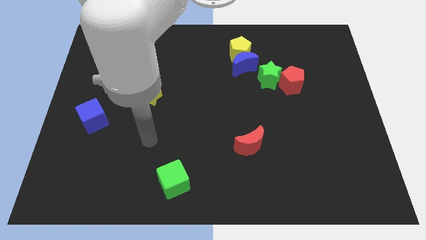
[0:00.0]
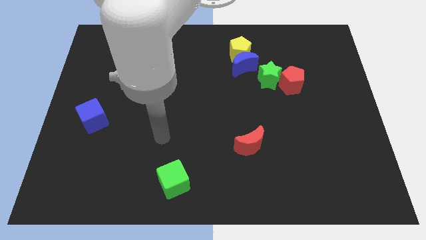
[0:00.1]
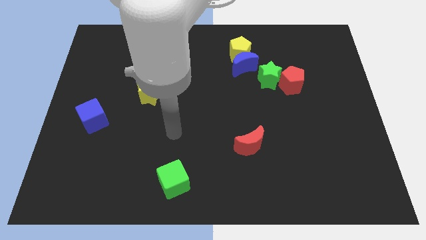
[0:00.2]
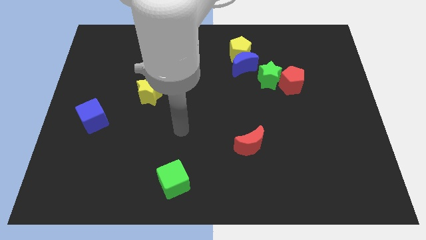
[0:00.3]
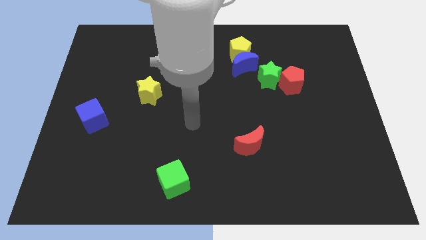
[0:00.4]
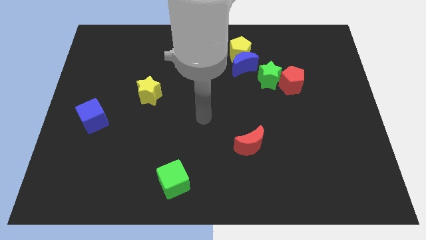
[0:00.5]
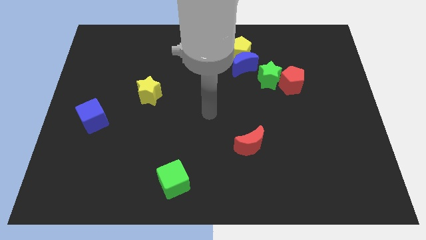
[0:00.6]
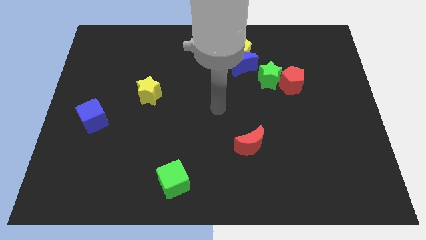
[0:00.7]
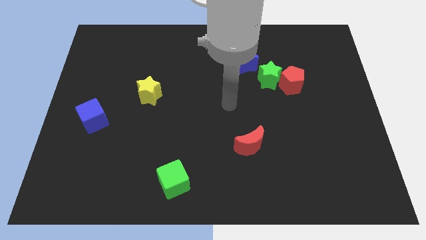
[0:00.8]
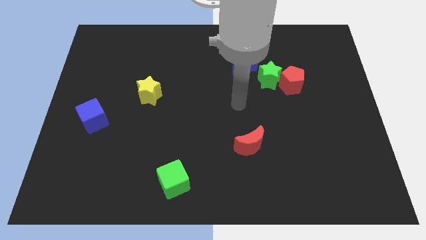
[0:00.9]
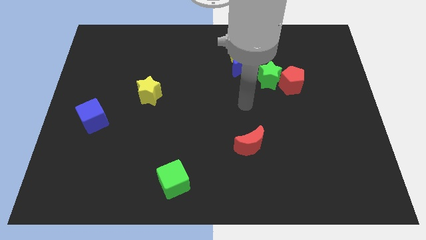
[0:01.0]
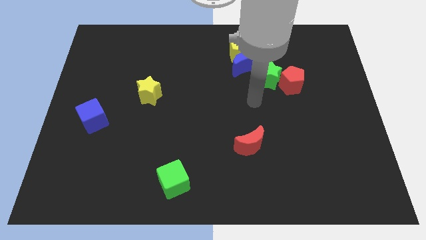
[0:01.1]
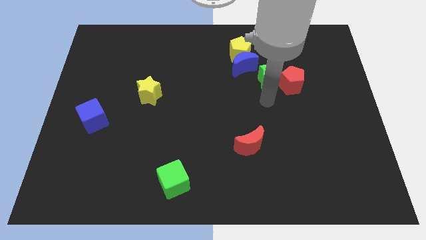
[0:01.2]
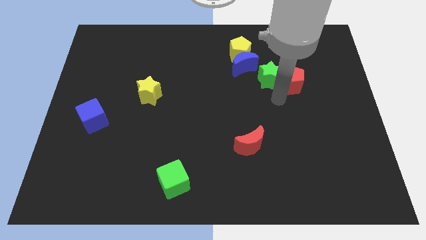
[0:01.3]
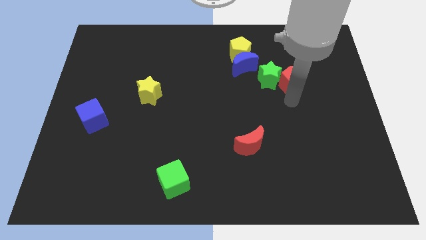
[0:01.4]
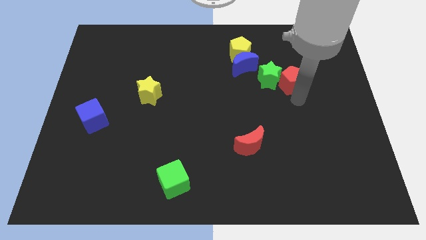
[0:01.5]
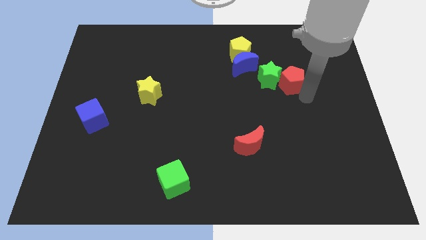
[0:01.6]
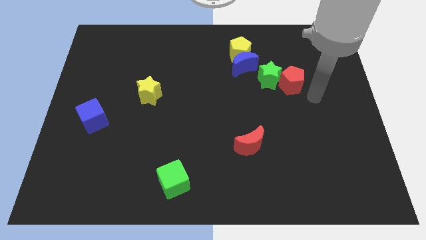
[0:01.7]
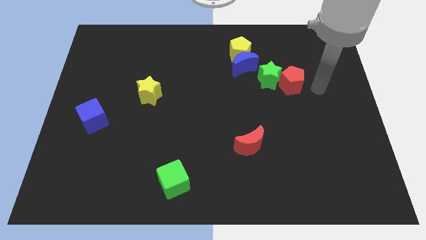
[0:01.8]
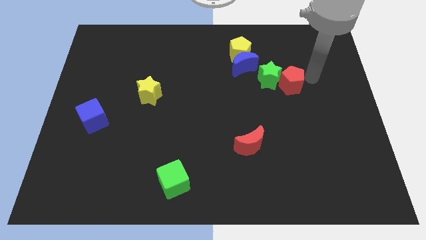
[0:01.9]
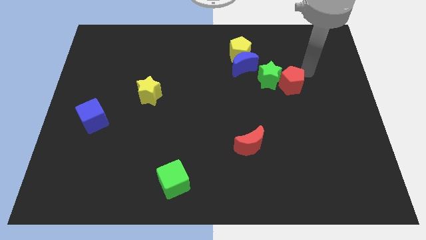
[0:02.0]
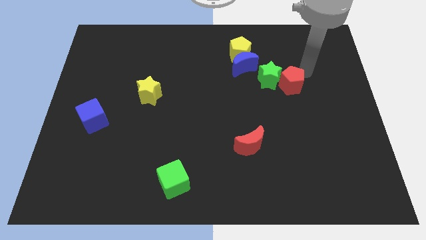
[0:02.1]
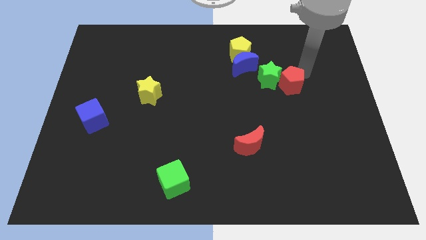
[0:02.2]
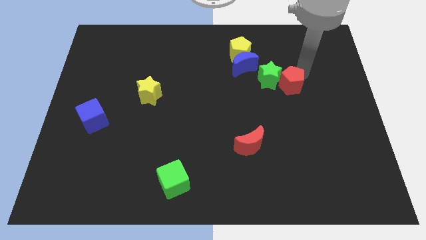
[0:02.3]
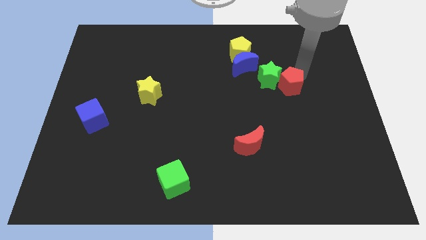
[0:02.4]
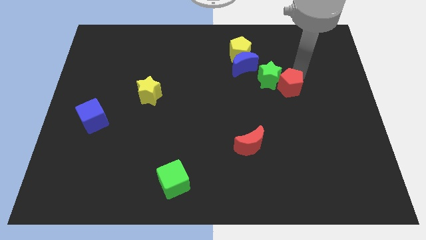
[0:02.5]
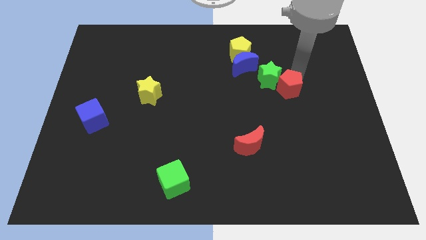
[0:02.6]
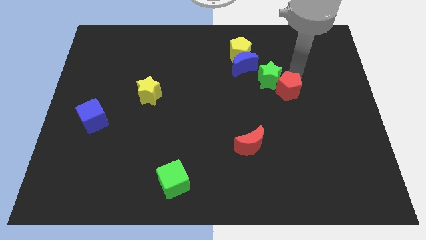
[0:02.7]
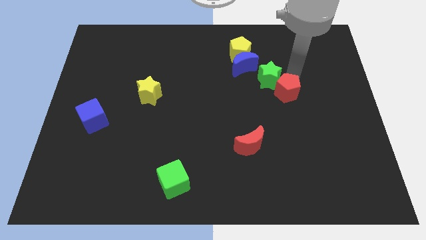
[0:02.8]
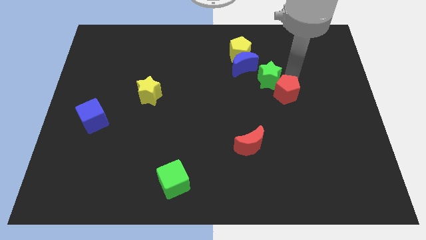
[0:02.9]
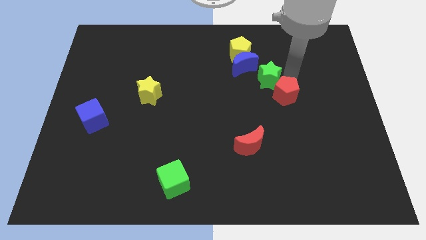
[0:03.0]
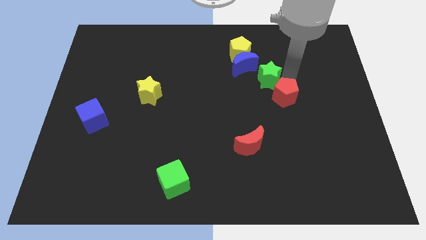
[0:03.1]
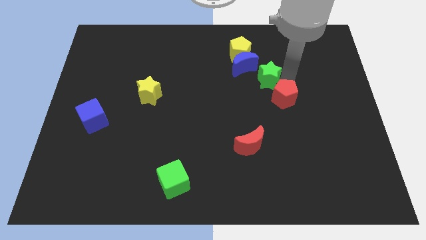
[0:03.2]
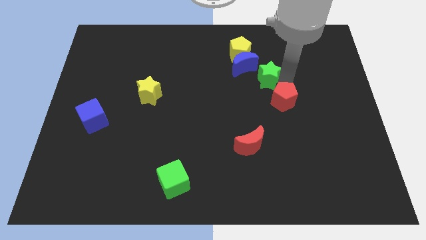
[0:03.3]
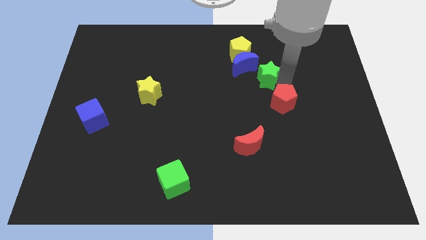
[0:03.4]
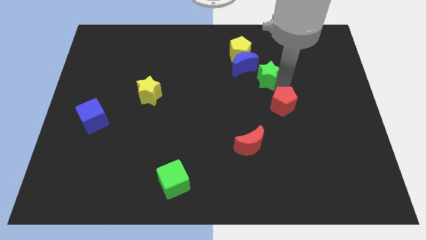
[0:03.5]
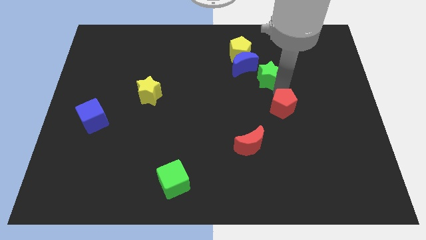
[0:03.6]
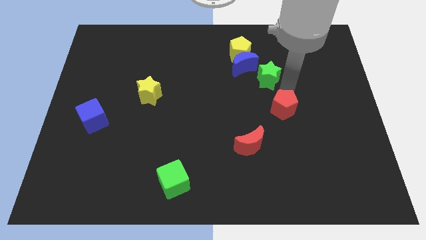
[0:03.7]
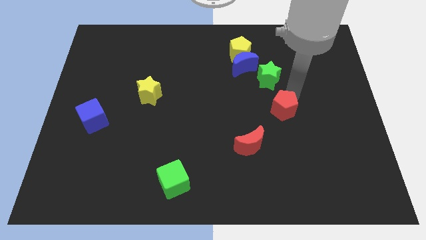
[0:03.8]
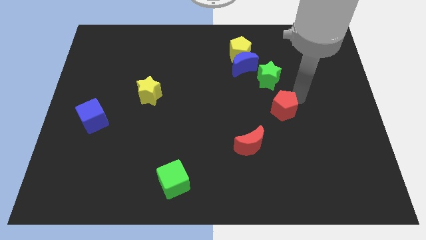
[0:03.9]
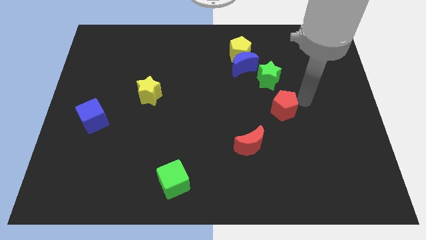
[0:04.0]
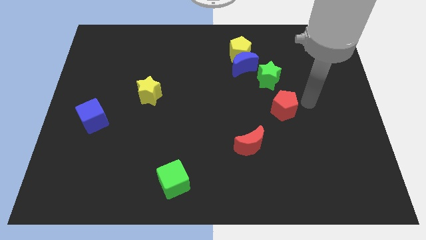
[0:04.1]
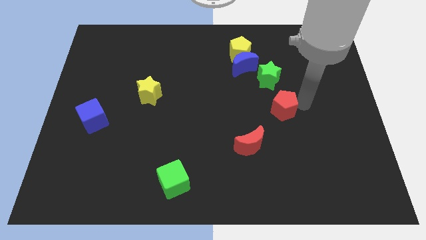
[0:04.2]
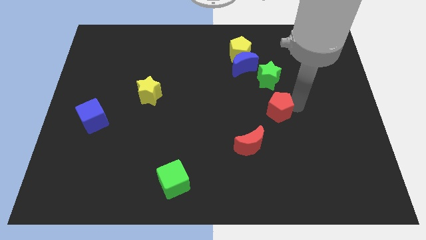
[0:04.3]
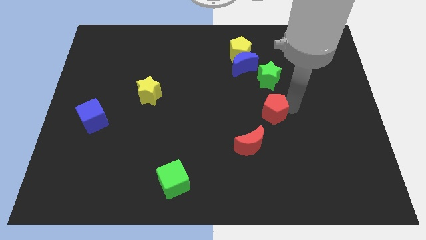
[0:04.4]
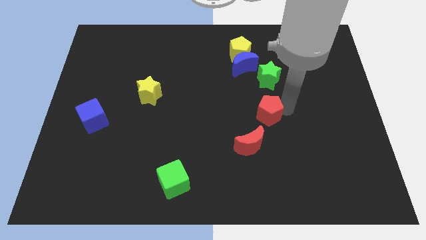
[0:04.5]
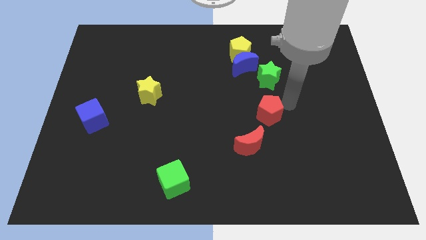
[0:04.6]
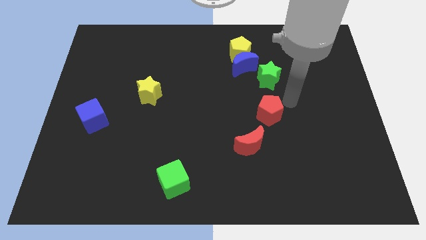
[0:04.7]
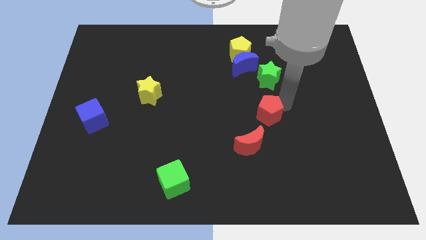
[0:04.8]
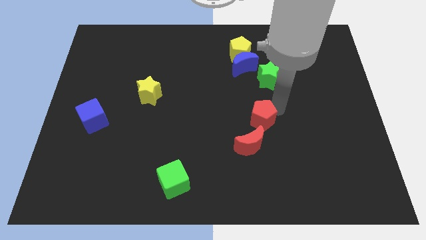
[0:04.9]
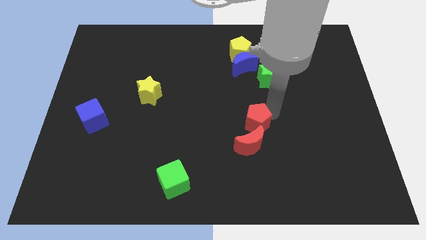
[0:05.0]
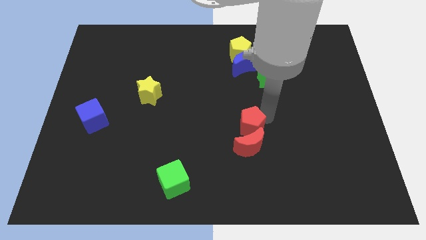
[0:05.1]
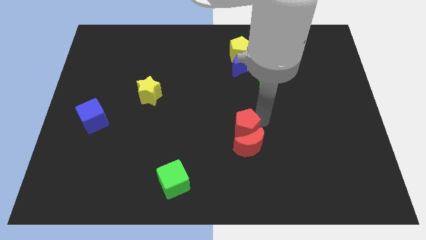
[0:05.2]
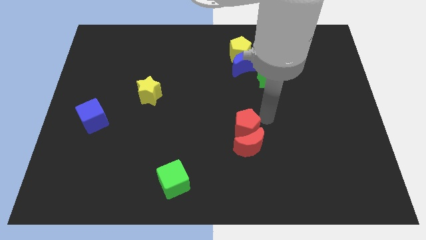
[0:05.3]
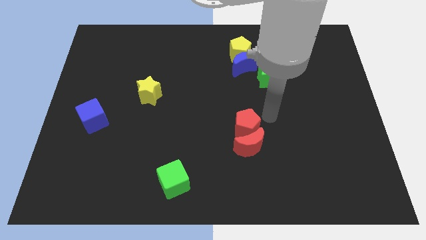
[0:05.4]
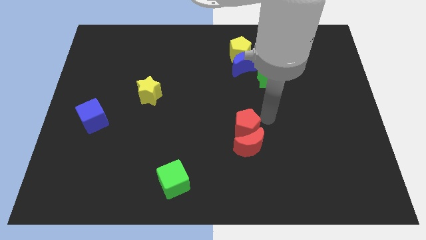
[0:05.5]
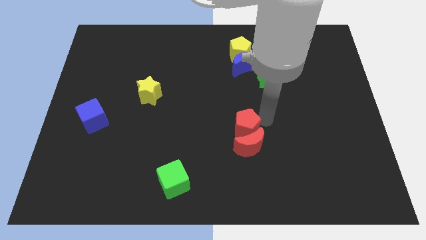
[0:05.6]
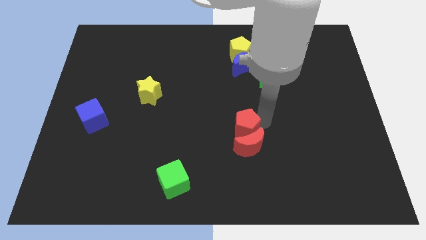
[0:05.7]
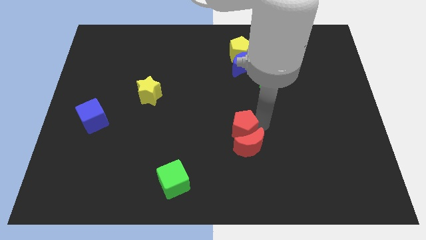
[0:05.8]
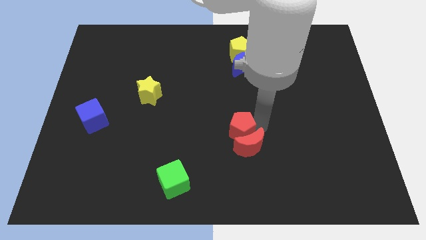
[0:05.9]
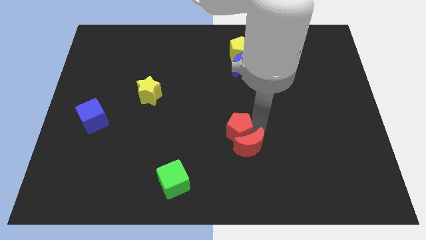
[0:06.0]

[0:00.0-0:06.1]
move the red pentagon down and then to the left

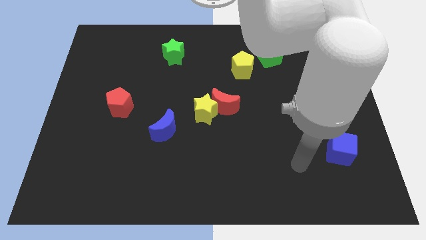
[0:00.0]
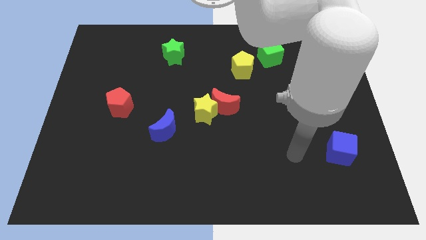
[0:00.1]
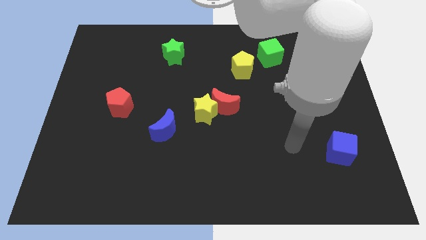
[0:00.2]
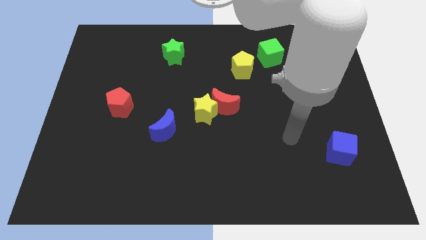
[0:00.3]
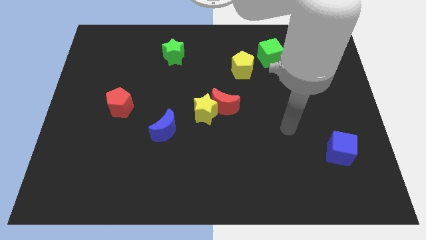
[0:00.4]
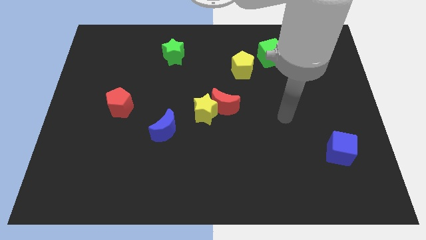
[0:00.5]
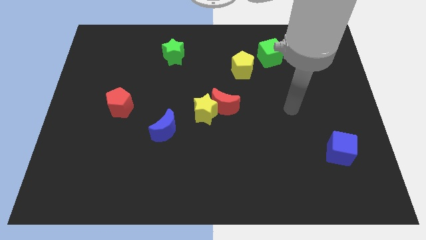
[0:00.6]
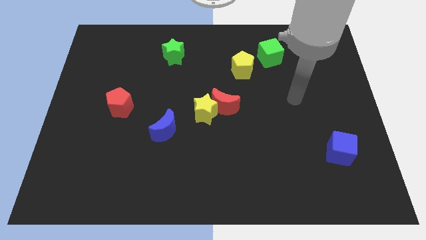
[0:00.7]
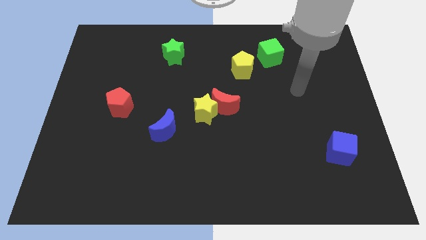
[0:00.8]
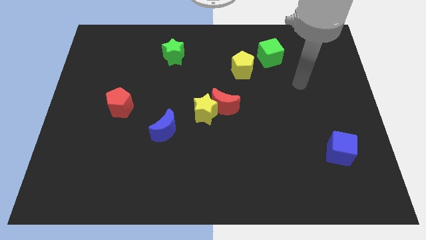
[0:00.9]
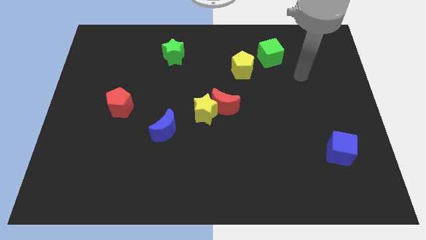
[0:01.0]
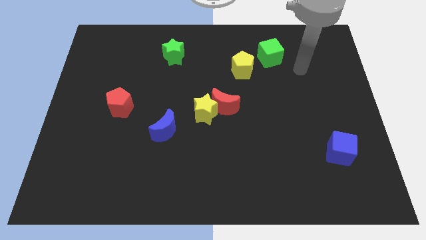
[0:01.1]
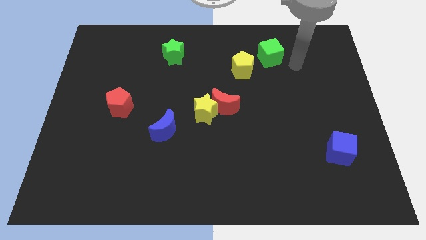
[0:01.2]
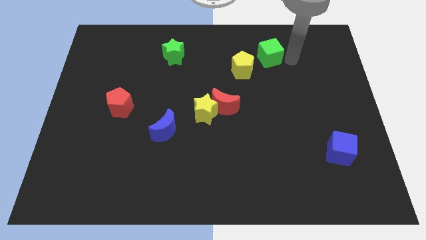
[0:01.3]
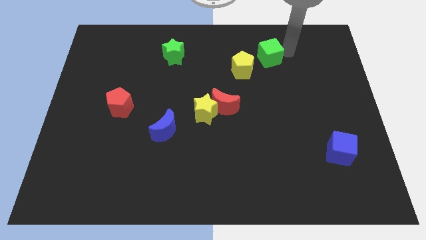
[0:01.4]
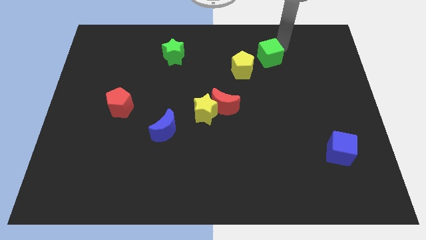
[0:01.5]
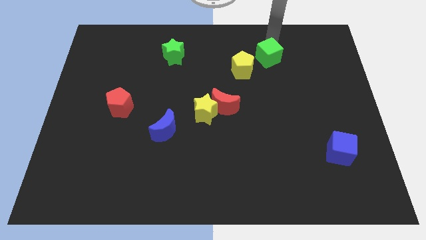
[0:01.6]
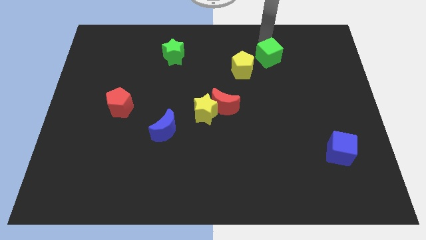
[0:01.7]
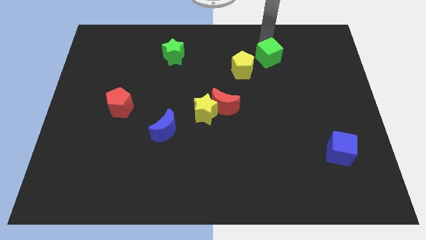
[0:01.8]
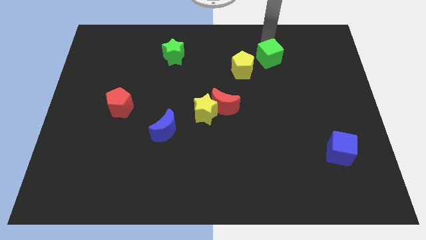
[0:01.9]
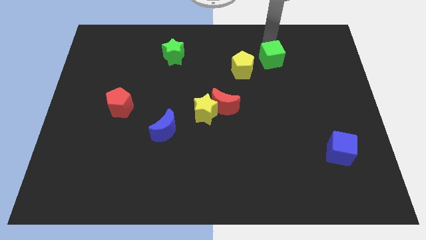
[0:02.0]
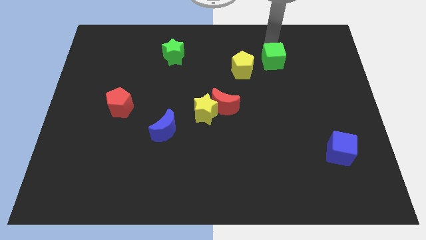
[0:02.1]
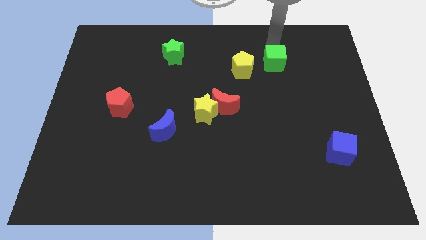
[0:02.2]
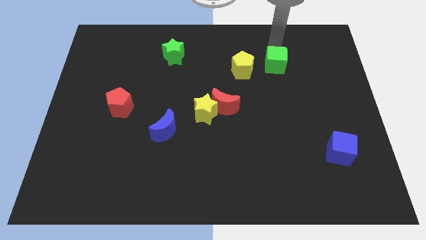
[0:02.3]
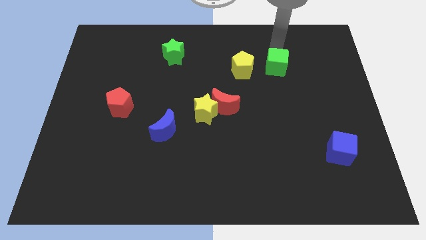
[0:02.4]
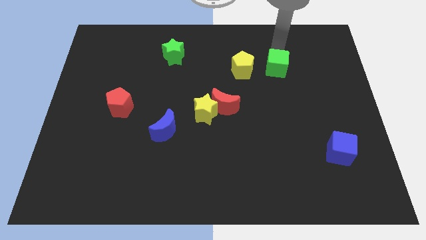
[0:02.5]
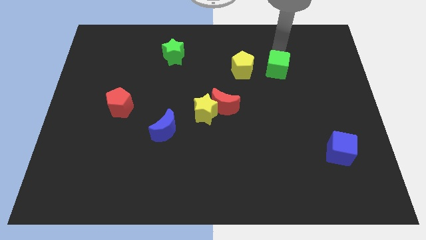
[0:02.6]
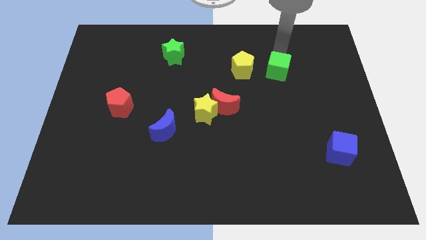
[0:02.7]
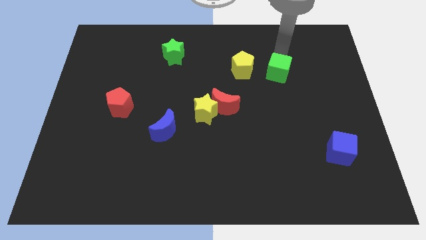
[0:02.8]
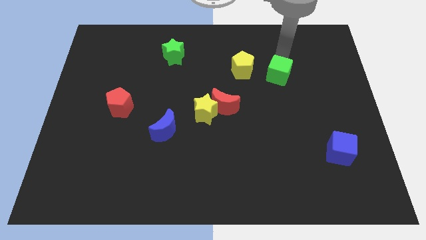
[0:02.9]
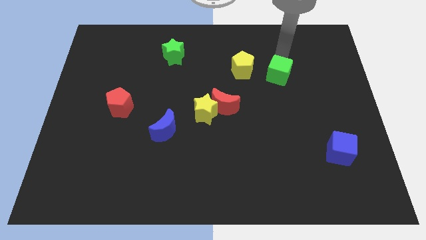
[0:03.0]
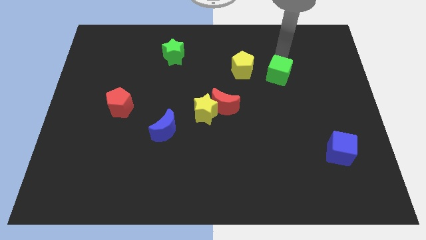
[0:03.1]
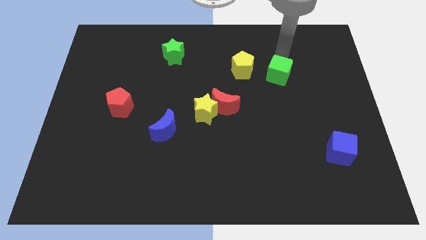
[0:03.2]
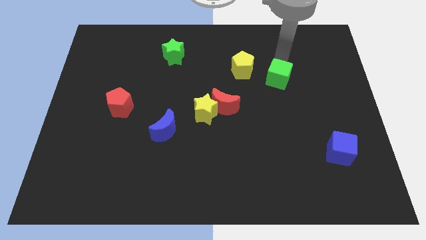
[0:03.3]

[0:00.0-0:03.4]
move the green cube a bit downwards
